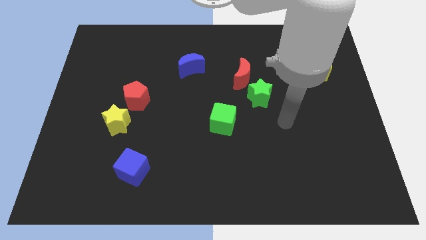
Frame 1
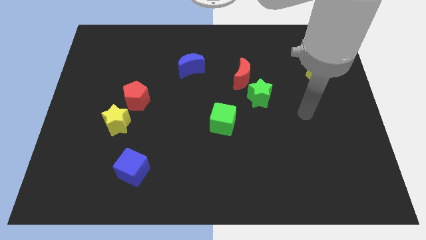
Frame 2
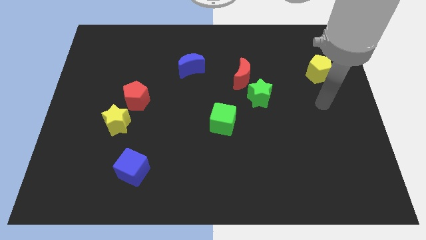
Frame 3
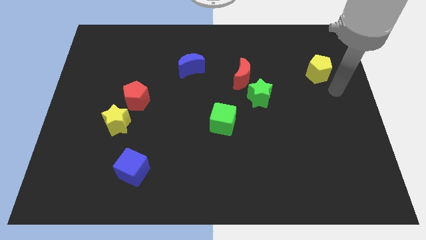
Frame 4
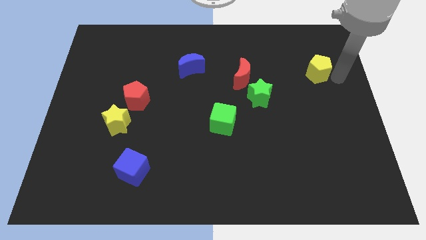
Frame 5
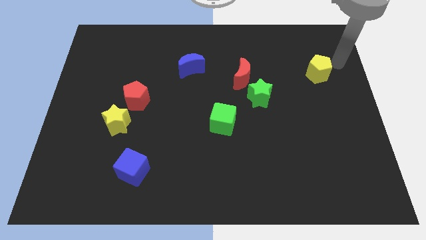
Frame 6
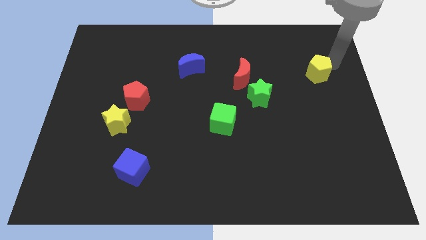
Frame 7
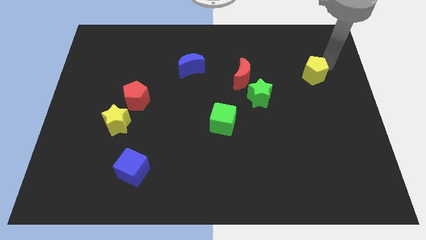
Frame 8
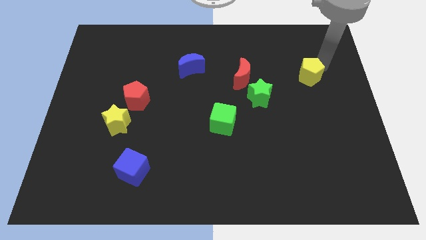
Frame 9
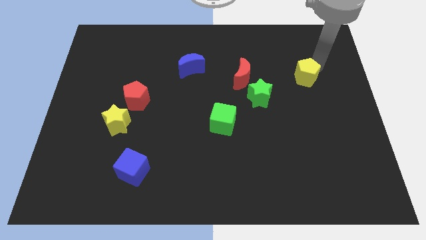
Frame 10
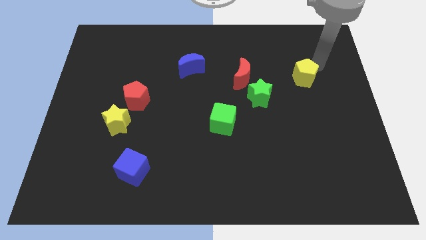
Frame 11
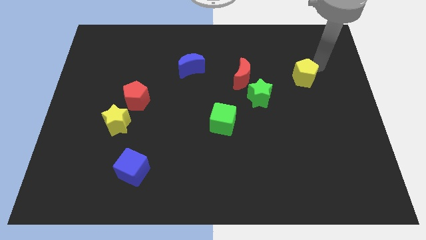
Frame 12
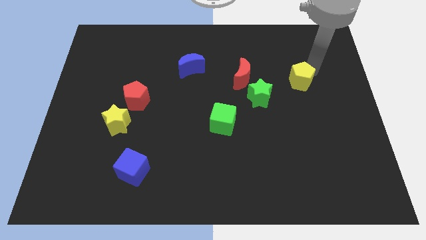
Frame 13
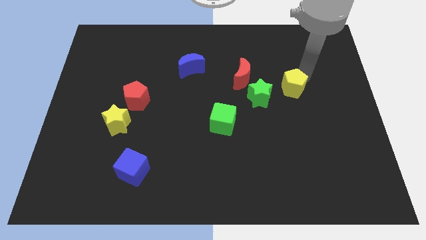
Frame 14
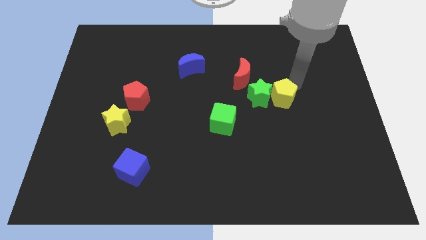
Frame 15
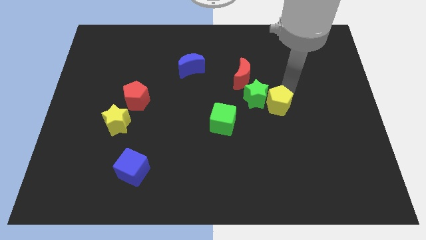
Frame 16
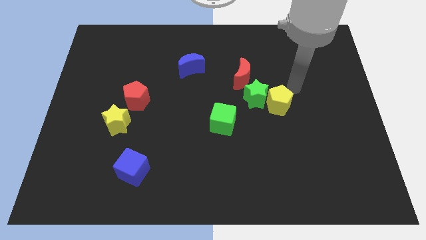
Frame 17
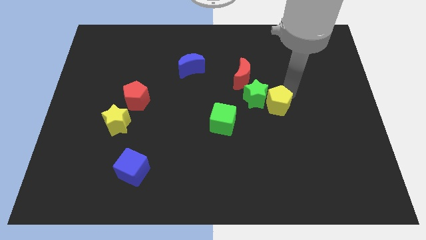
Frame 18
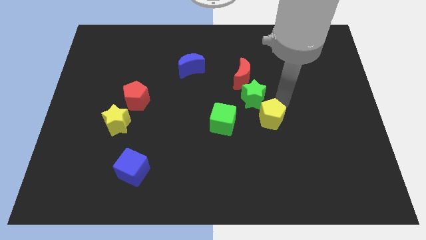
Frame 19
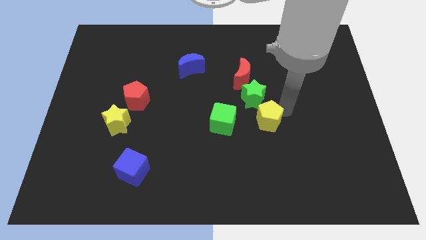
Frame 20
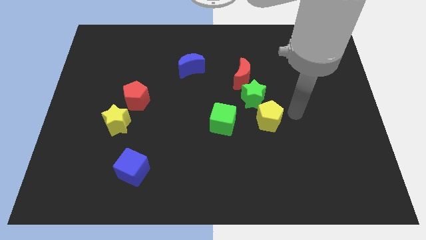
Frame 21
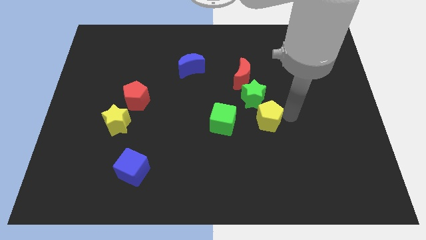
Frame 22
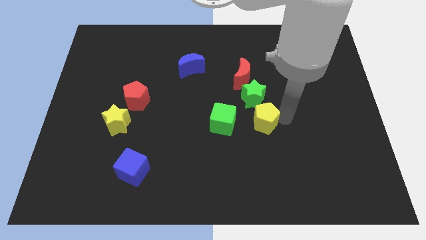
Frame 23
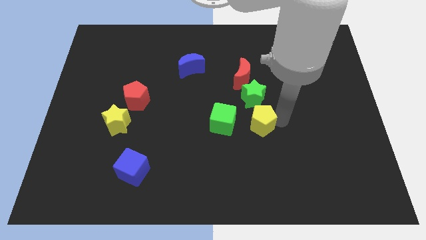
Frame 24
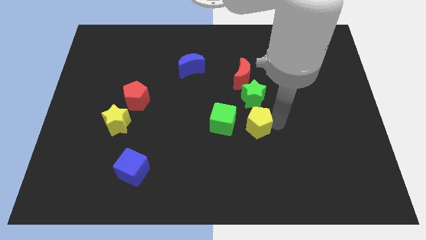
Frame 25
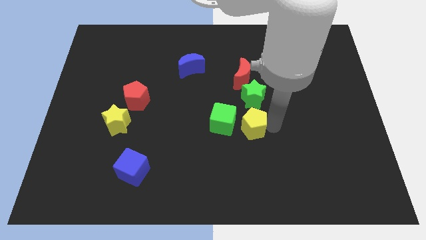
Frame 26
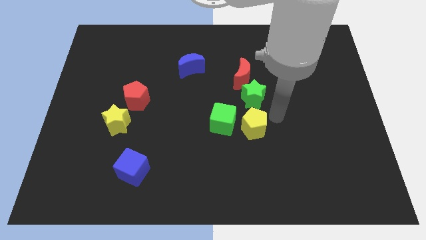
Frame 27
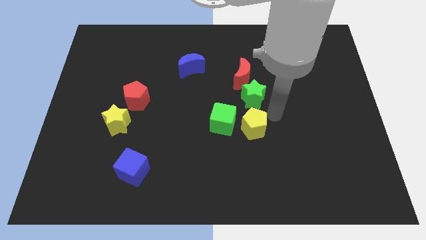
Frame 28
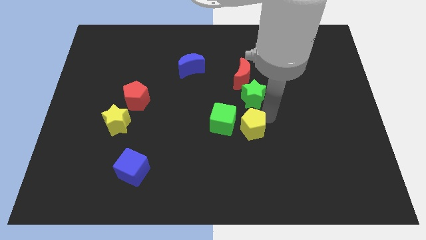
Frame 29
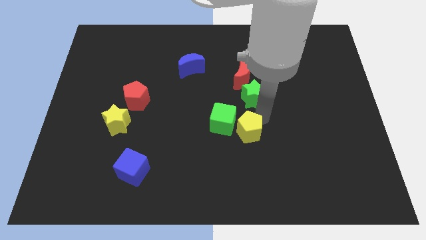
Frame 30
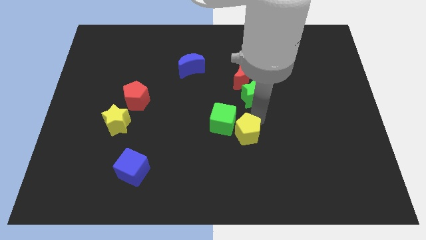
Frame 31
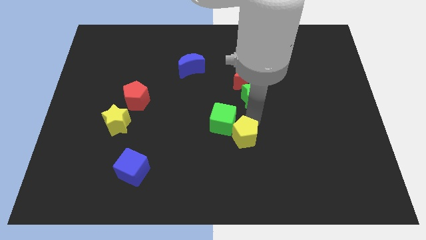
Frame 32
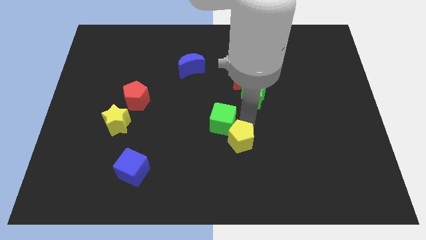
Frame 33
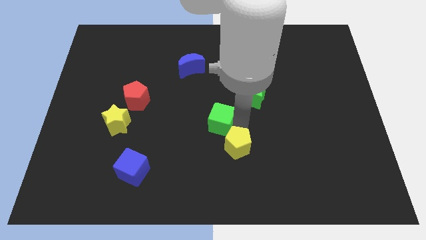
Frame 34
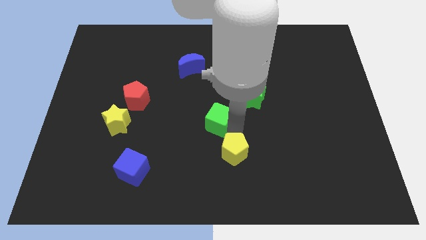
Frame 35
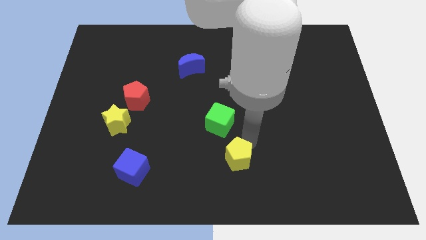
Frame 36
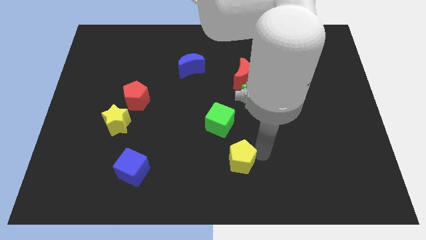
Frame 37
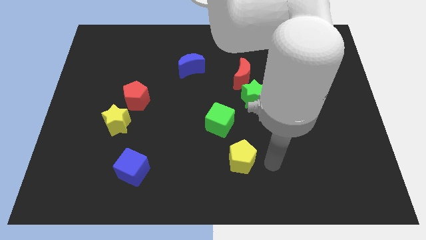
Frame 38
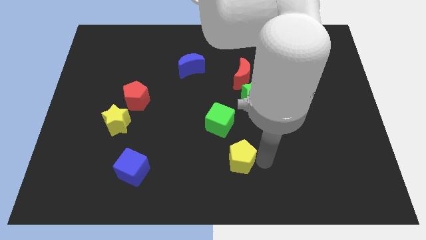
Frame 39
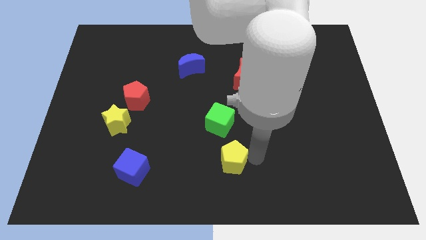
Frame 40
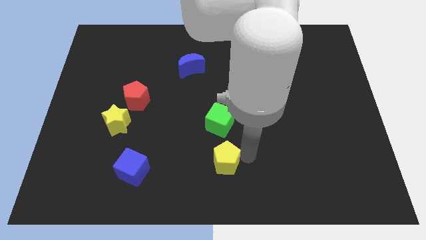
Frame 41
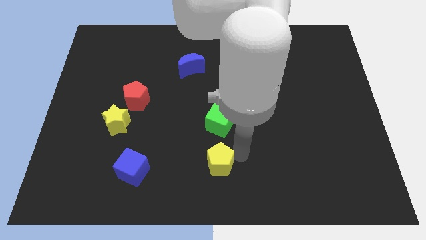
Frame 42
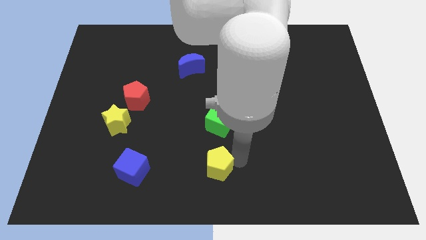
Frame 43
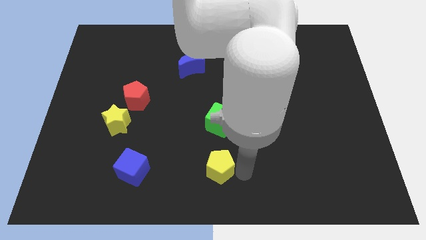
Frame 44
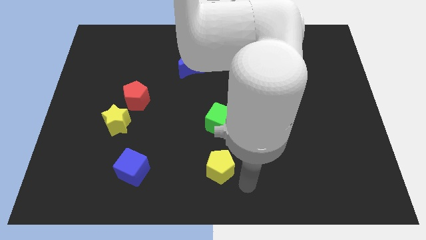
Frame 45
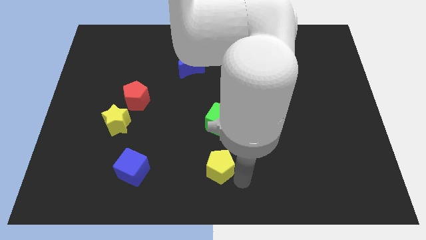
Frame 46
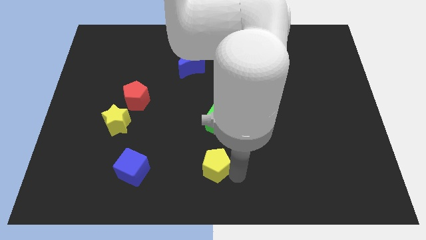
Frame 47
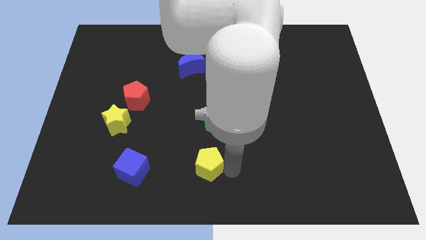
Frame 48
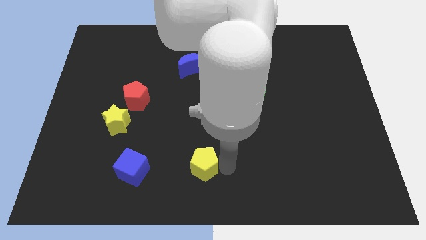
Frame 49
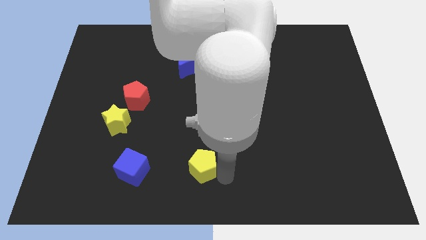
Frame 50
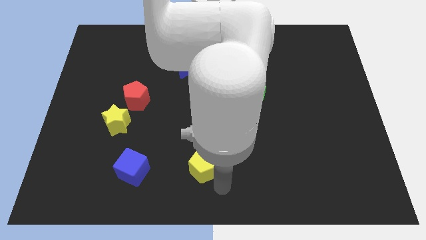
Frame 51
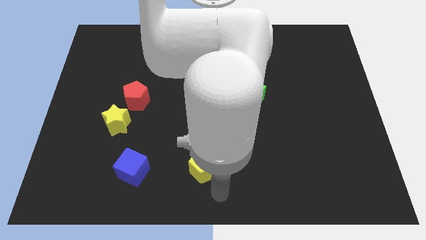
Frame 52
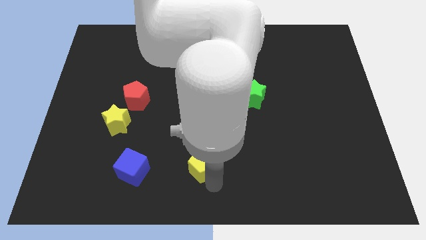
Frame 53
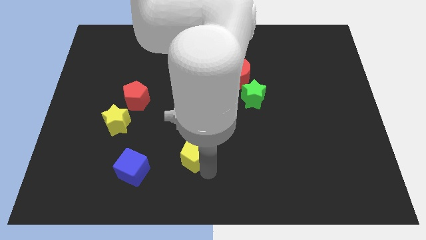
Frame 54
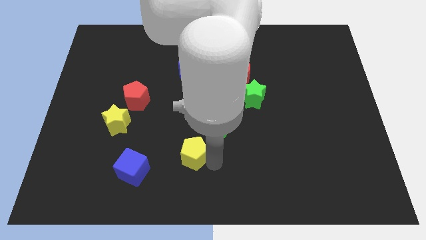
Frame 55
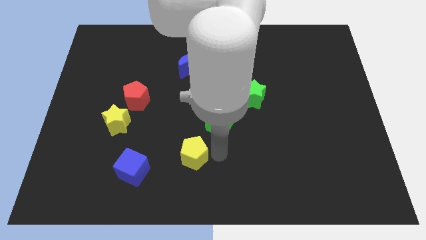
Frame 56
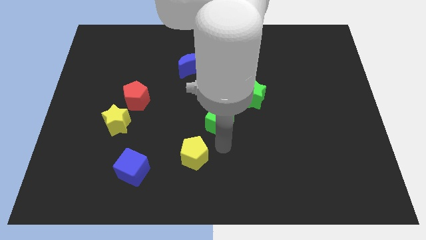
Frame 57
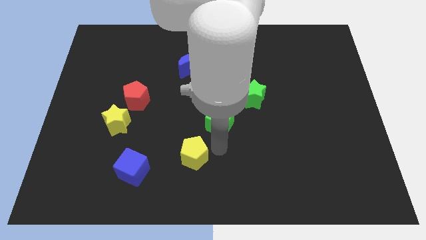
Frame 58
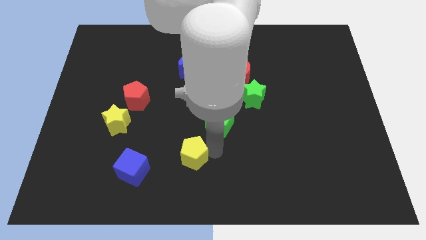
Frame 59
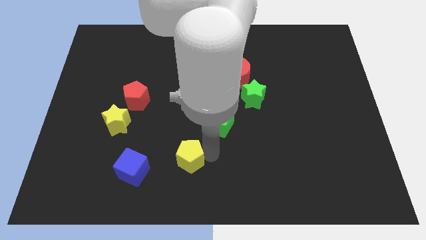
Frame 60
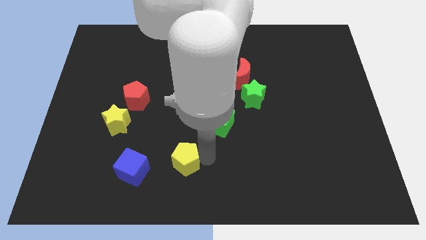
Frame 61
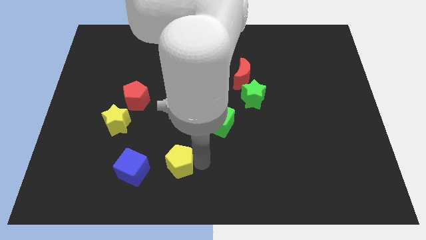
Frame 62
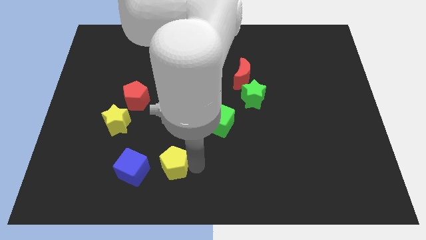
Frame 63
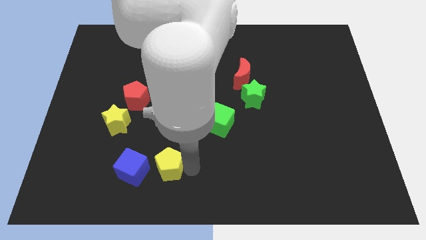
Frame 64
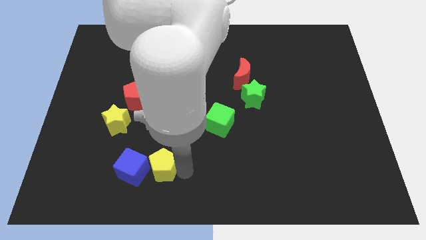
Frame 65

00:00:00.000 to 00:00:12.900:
put the yellow pentagon close to the blue cube
